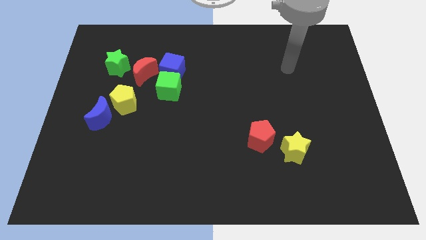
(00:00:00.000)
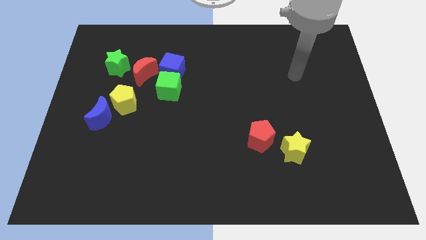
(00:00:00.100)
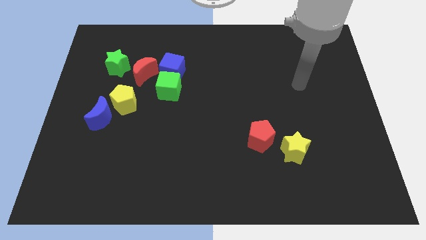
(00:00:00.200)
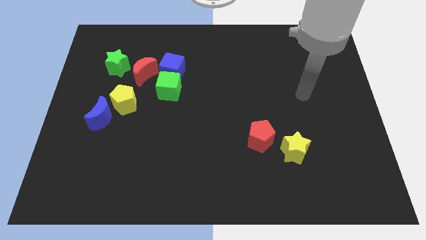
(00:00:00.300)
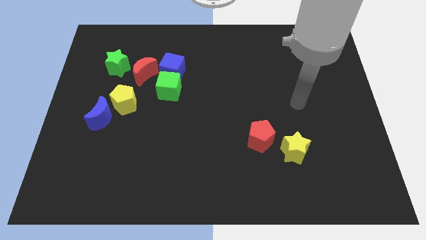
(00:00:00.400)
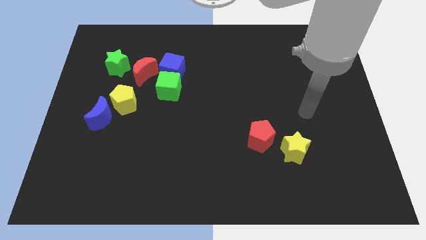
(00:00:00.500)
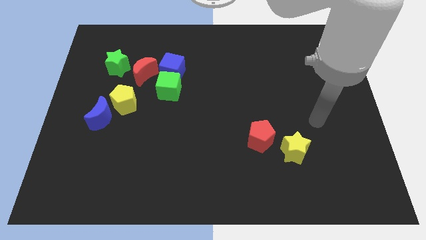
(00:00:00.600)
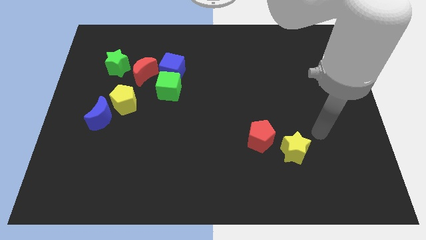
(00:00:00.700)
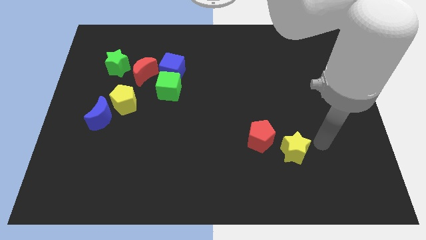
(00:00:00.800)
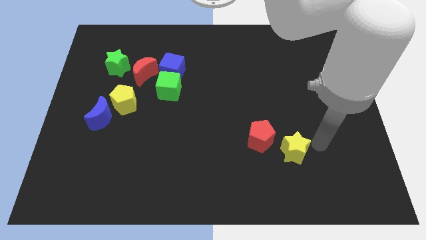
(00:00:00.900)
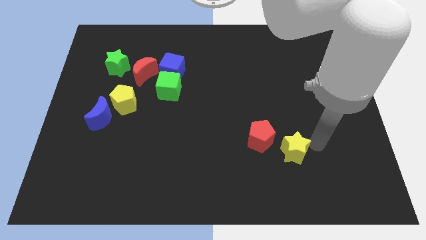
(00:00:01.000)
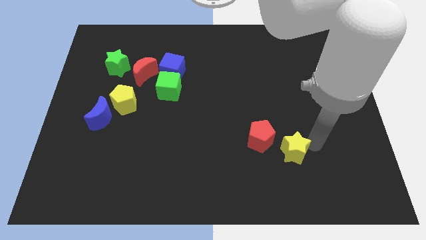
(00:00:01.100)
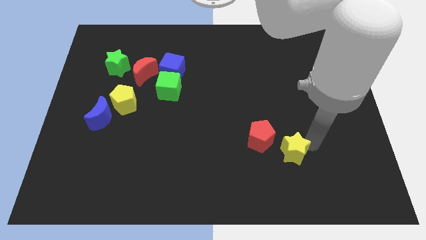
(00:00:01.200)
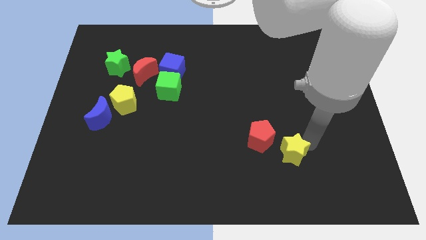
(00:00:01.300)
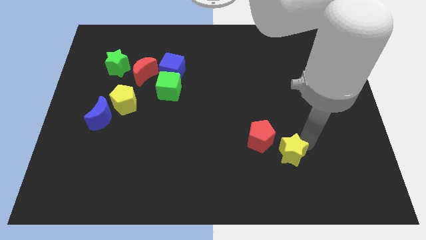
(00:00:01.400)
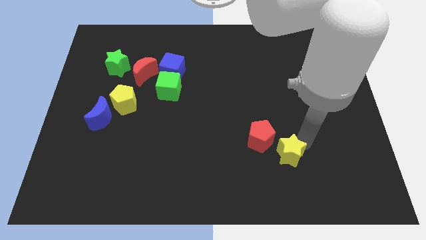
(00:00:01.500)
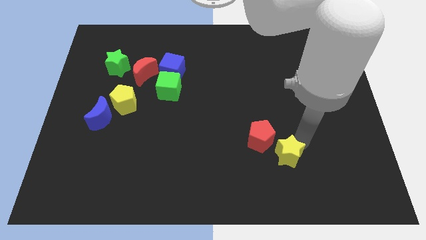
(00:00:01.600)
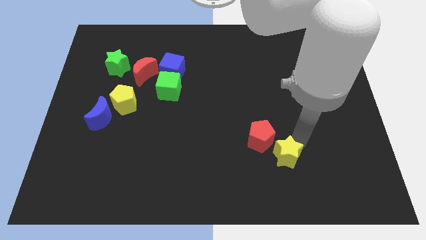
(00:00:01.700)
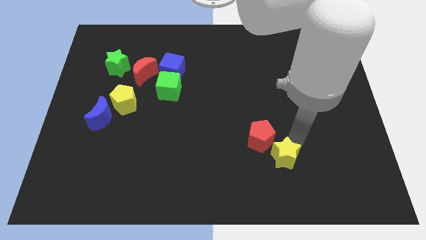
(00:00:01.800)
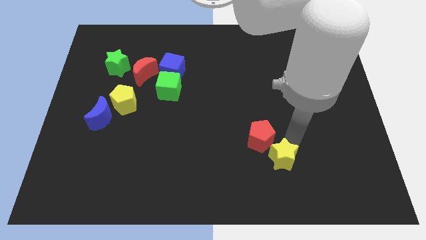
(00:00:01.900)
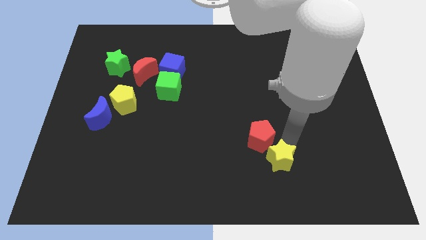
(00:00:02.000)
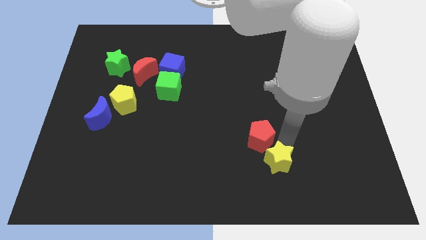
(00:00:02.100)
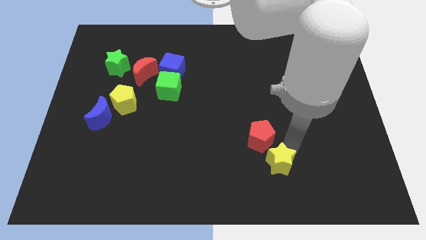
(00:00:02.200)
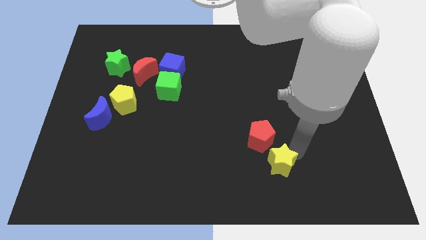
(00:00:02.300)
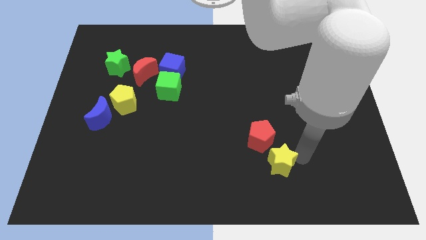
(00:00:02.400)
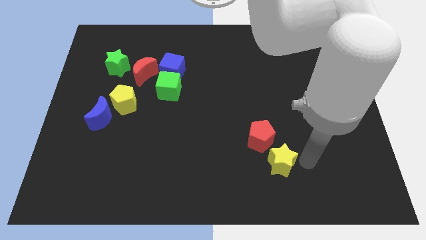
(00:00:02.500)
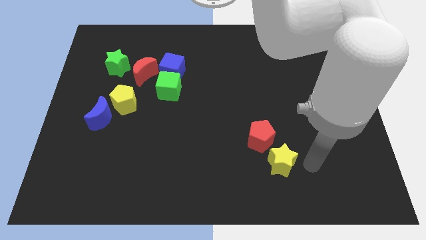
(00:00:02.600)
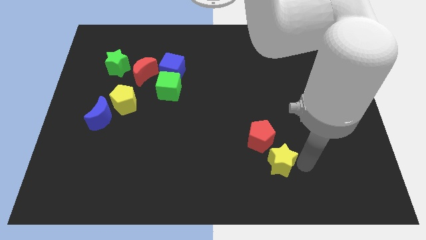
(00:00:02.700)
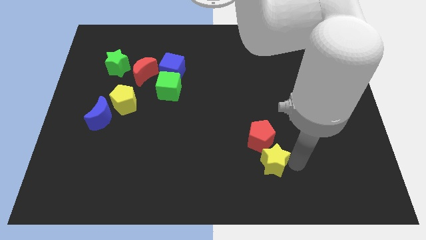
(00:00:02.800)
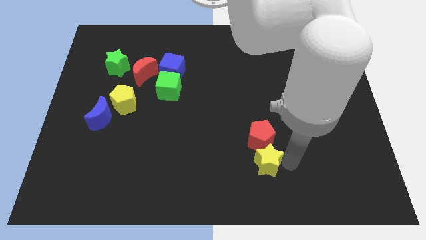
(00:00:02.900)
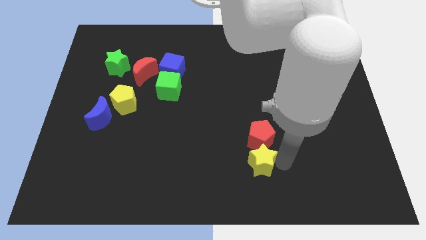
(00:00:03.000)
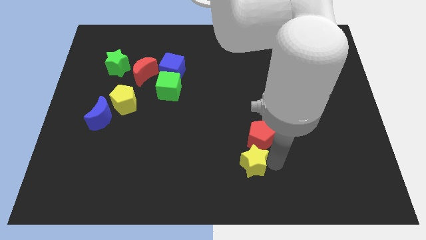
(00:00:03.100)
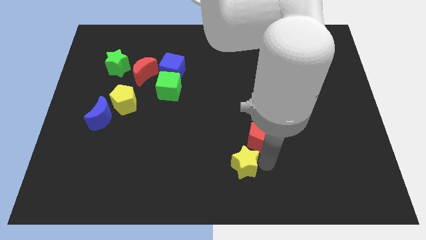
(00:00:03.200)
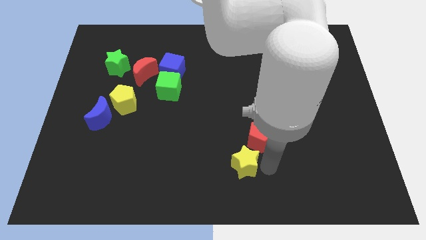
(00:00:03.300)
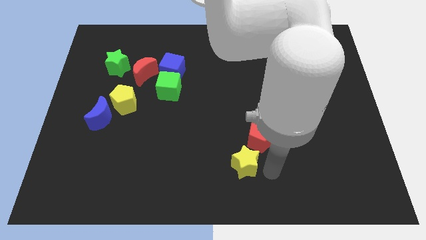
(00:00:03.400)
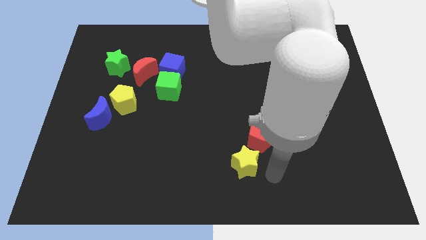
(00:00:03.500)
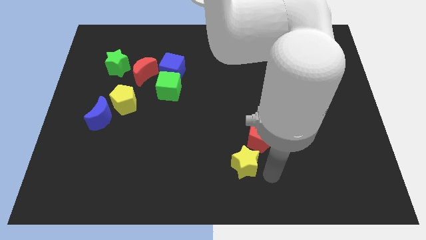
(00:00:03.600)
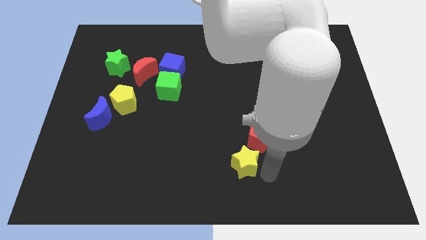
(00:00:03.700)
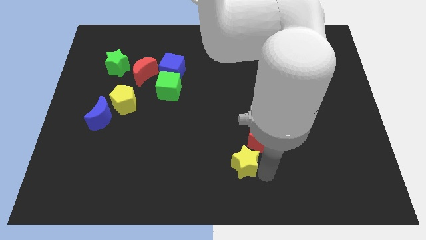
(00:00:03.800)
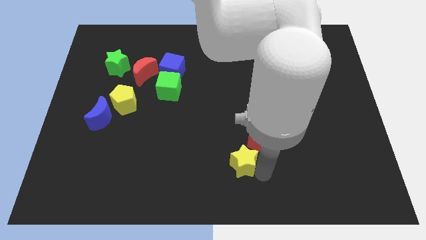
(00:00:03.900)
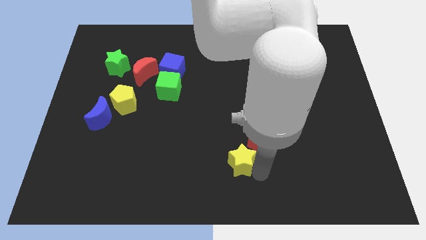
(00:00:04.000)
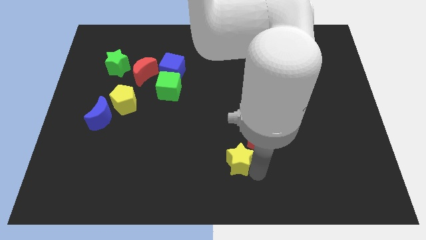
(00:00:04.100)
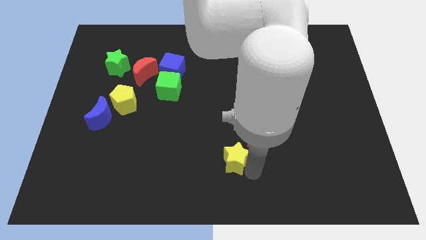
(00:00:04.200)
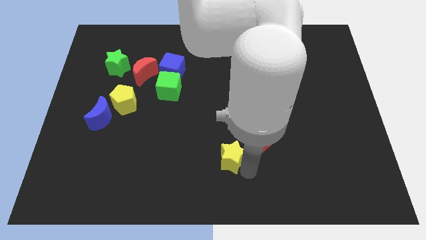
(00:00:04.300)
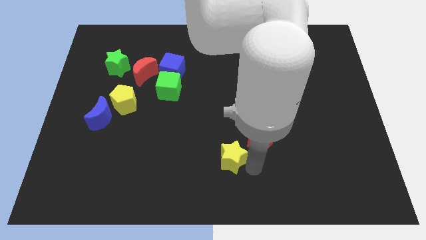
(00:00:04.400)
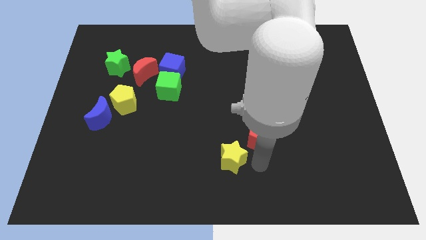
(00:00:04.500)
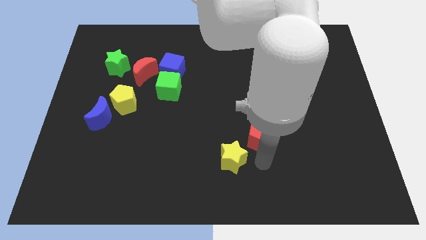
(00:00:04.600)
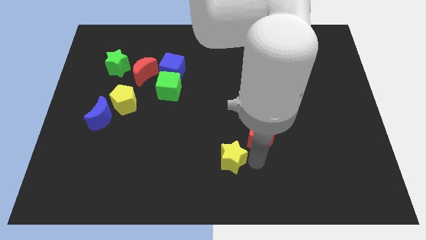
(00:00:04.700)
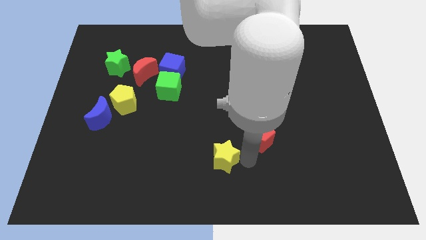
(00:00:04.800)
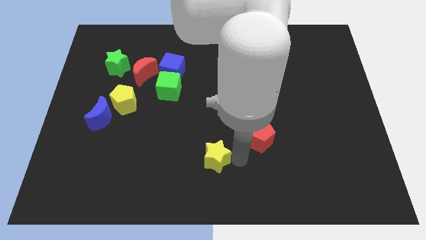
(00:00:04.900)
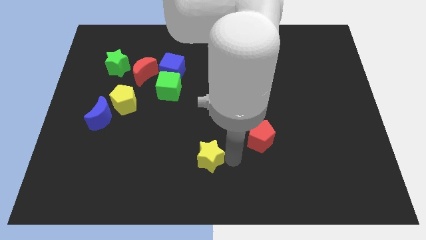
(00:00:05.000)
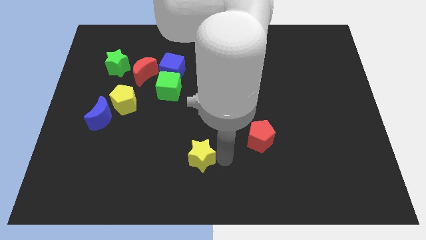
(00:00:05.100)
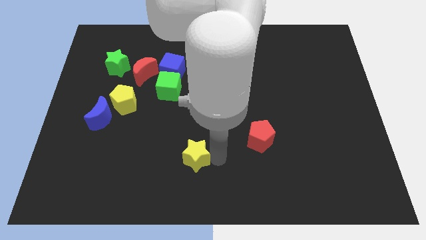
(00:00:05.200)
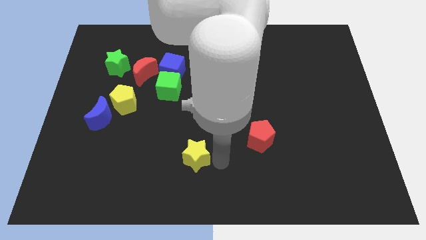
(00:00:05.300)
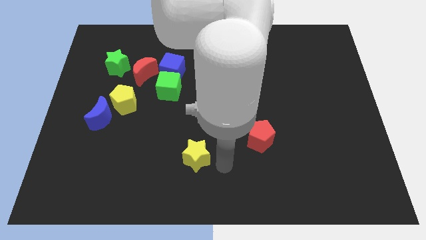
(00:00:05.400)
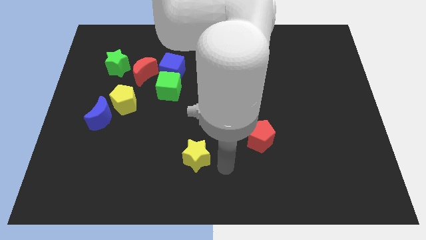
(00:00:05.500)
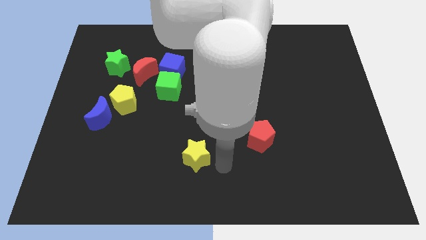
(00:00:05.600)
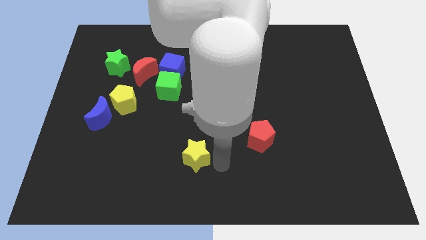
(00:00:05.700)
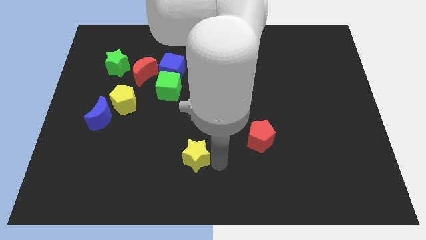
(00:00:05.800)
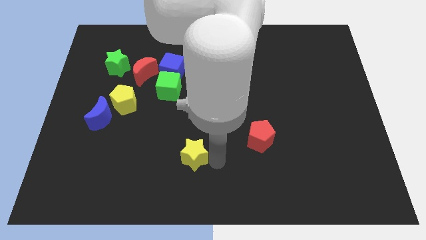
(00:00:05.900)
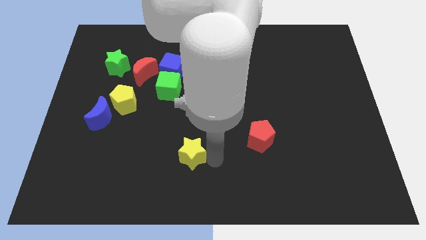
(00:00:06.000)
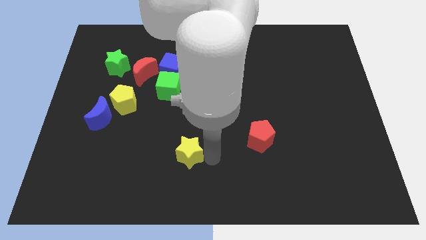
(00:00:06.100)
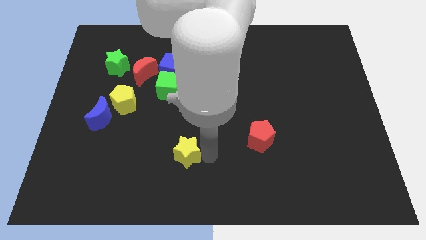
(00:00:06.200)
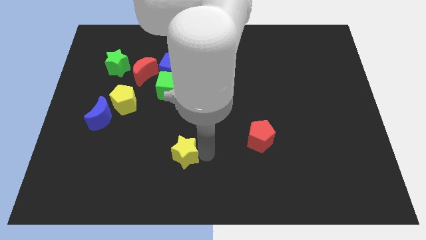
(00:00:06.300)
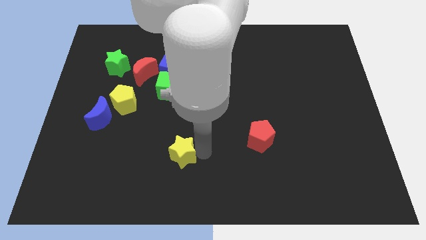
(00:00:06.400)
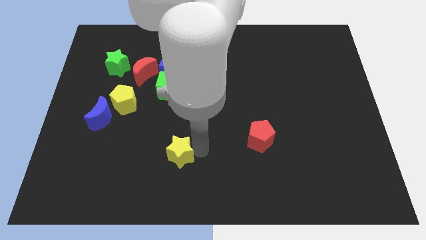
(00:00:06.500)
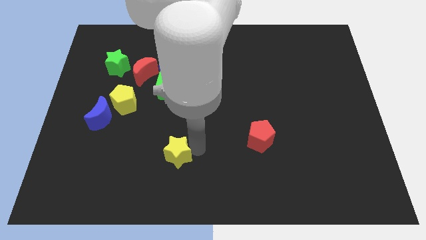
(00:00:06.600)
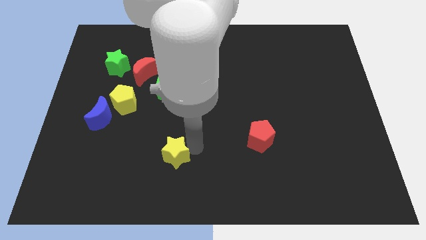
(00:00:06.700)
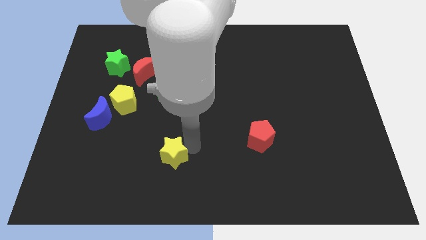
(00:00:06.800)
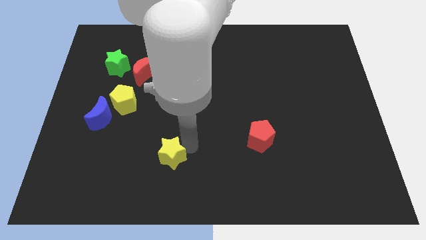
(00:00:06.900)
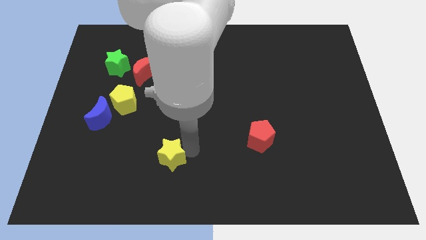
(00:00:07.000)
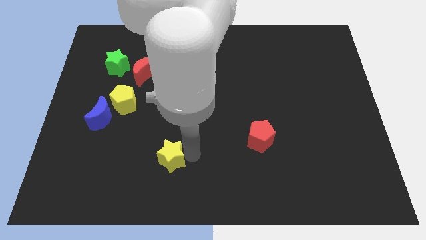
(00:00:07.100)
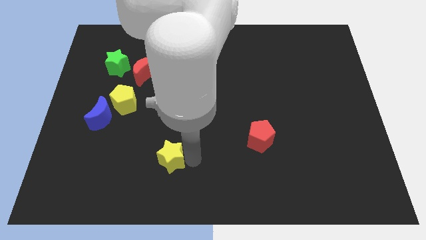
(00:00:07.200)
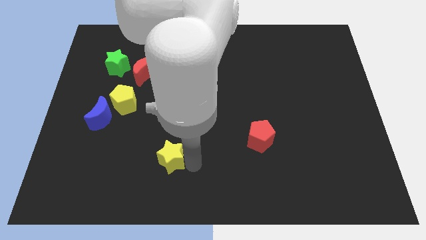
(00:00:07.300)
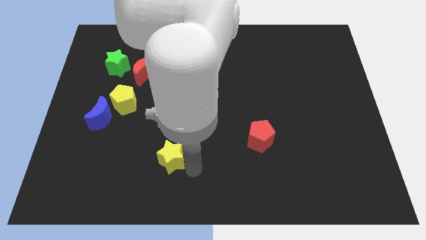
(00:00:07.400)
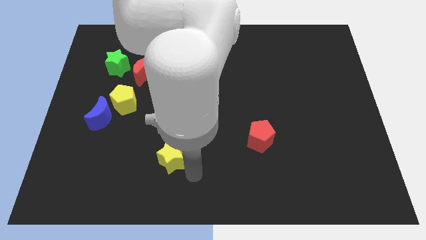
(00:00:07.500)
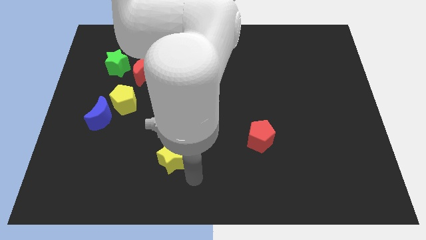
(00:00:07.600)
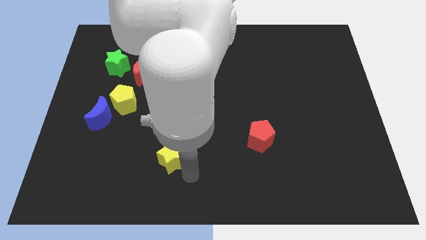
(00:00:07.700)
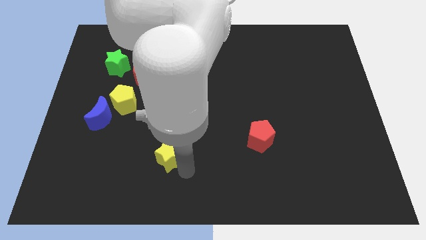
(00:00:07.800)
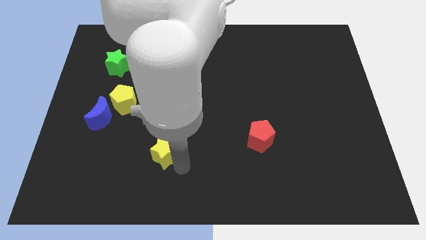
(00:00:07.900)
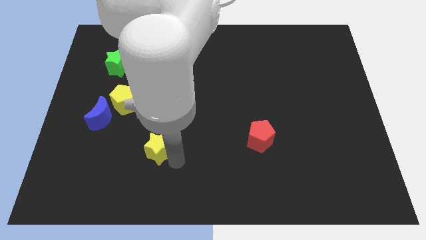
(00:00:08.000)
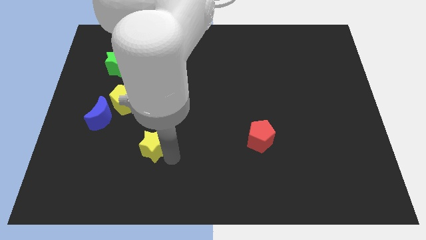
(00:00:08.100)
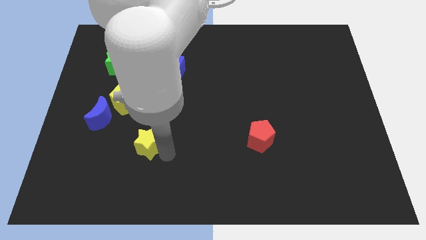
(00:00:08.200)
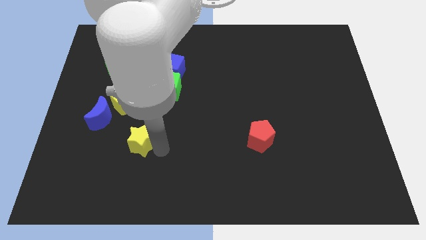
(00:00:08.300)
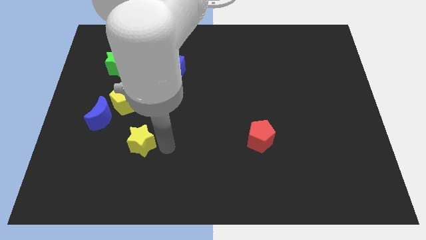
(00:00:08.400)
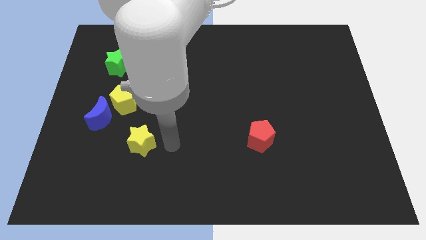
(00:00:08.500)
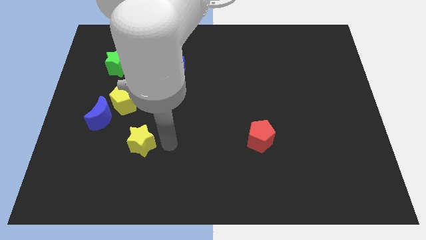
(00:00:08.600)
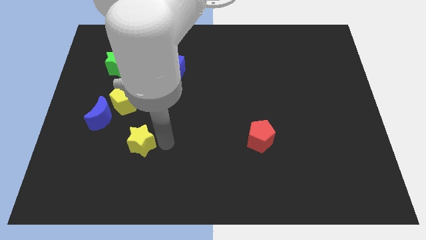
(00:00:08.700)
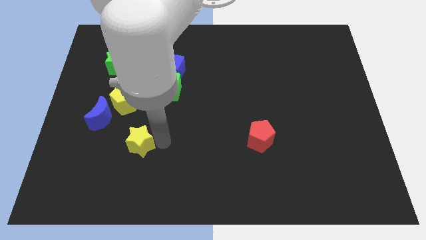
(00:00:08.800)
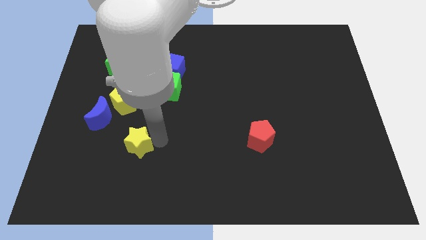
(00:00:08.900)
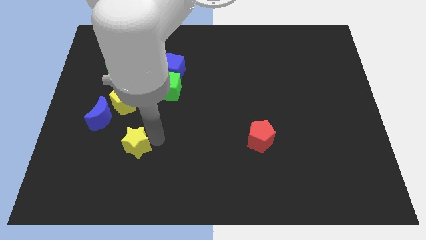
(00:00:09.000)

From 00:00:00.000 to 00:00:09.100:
put the yellow star to the bottom of the yellow pentagon
